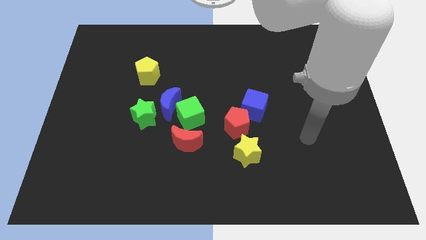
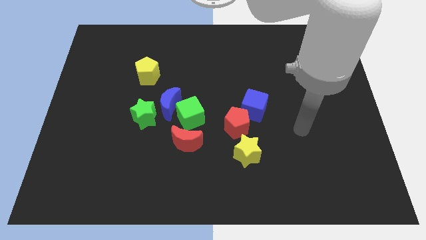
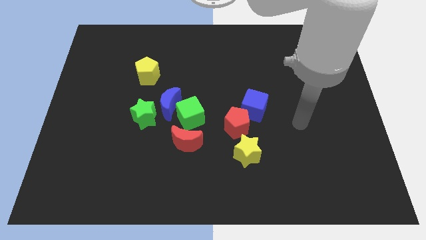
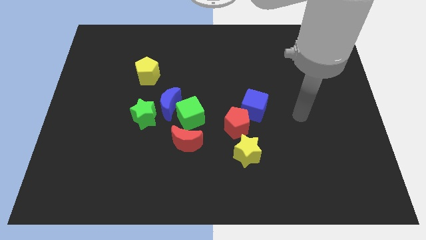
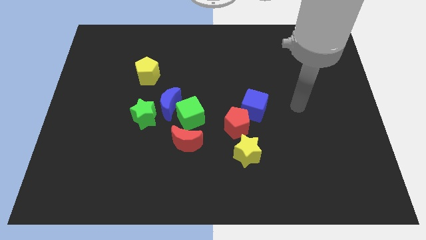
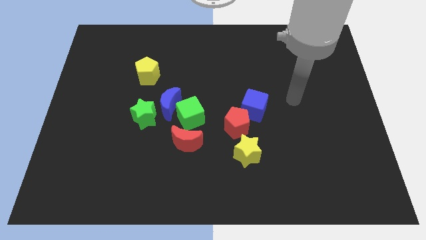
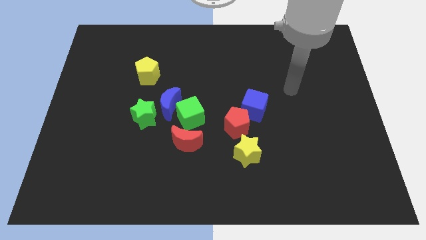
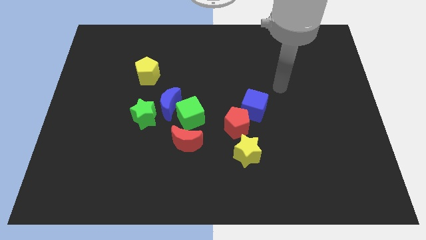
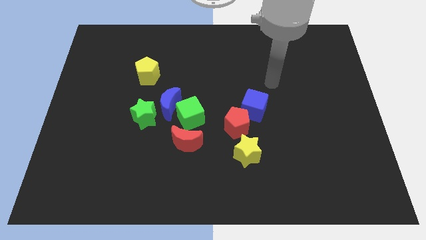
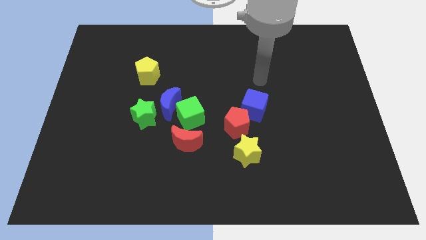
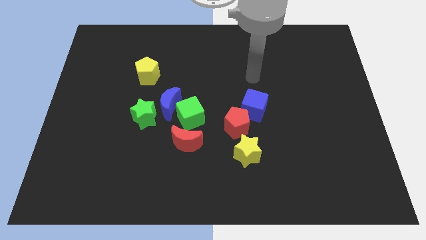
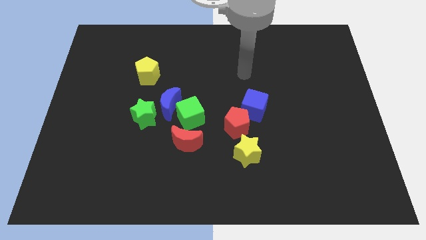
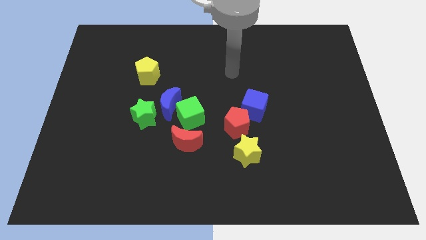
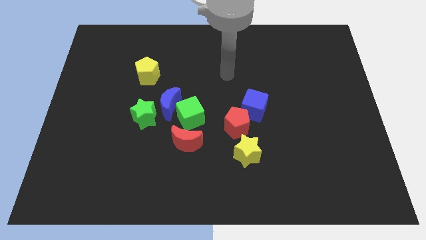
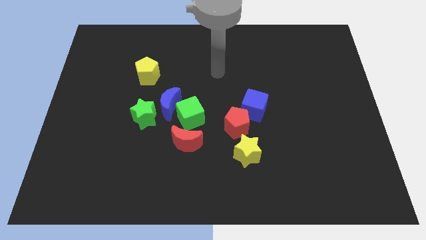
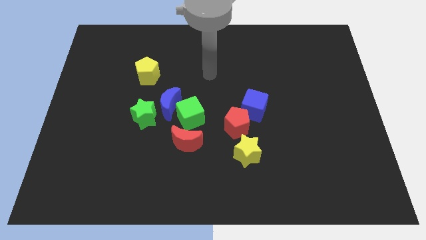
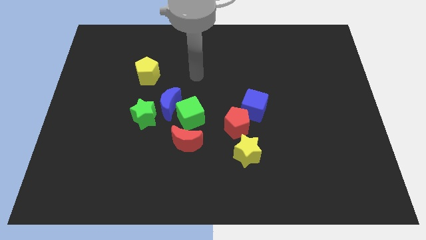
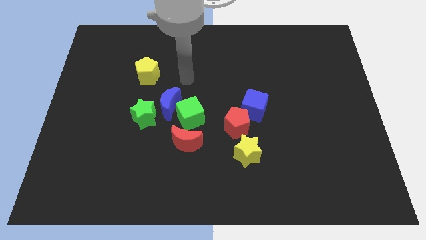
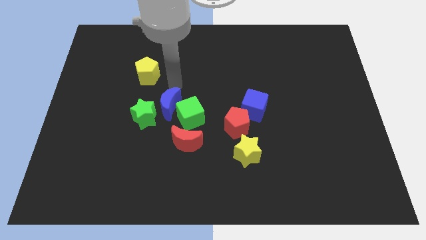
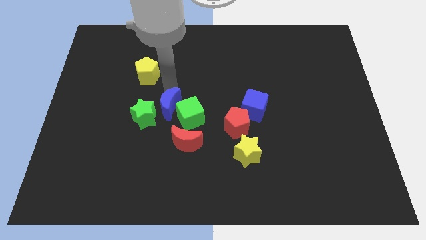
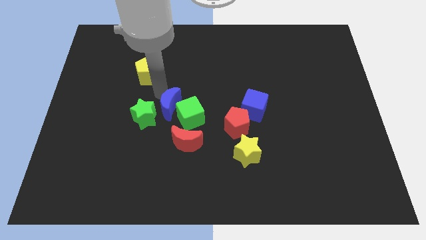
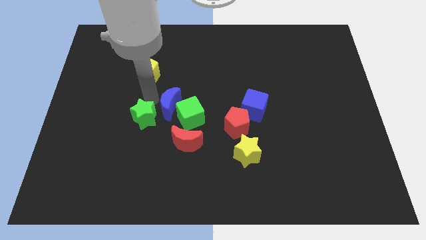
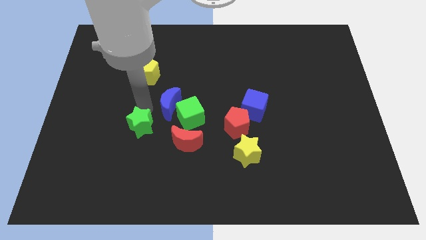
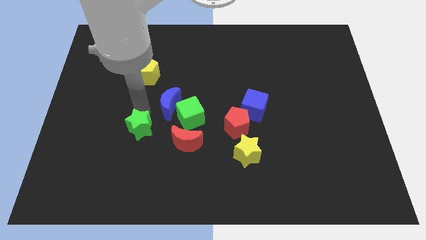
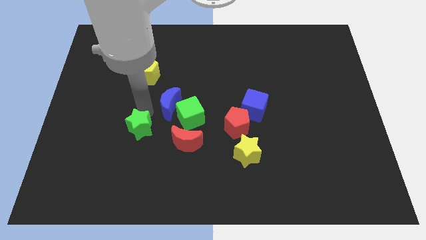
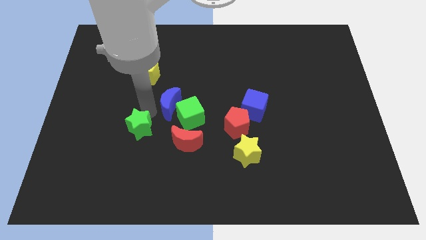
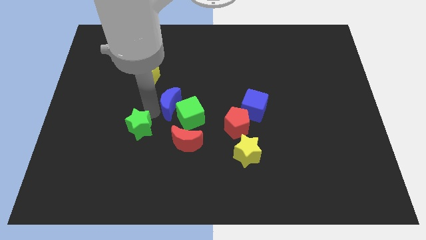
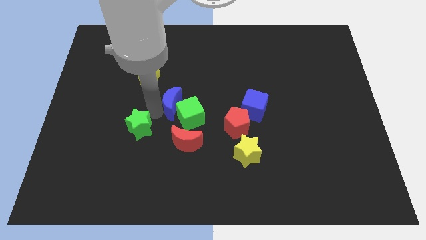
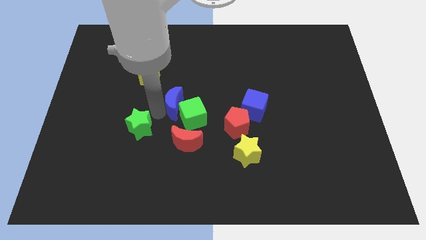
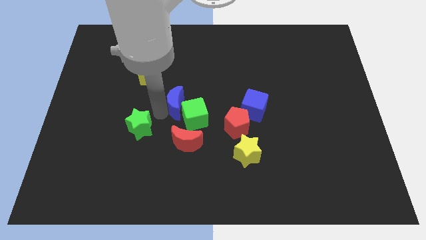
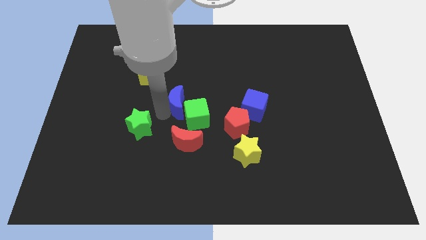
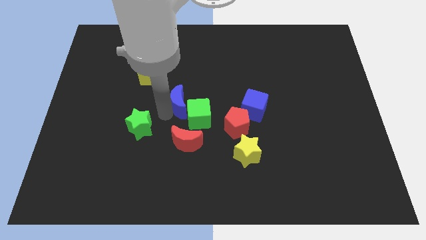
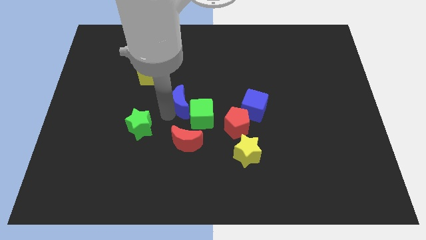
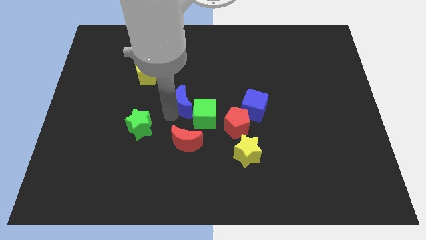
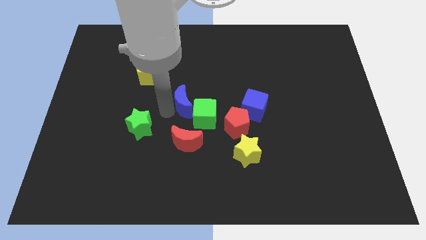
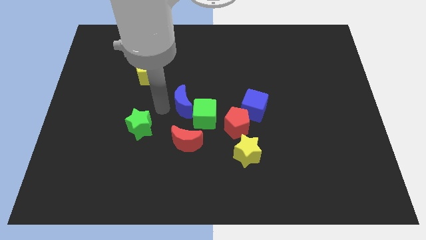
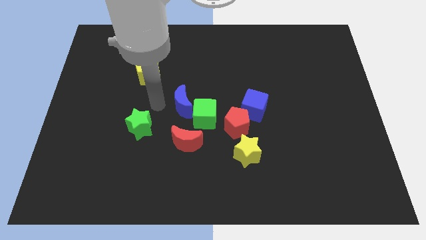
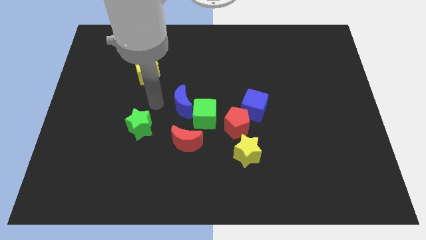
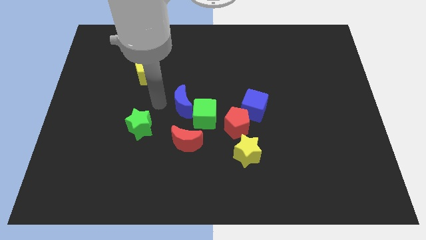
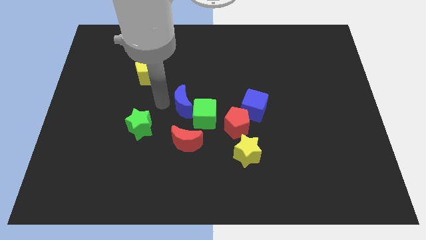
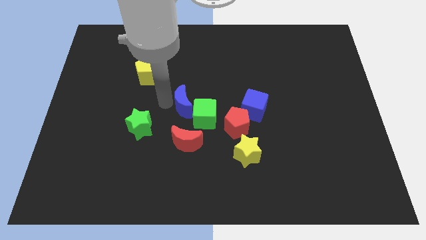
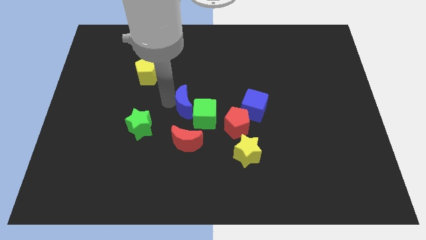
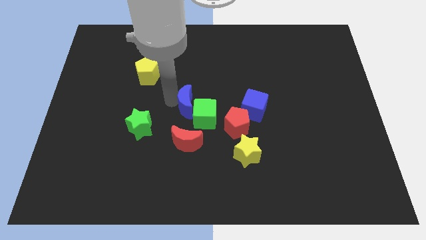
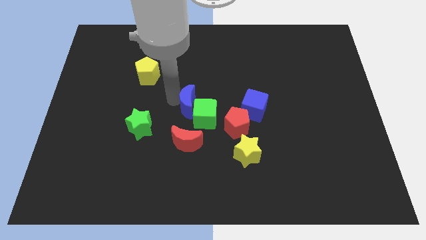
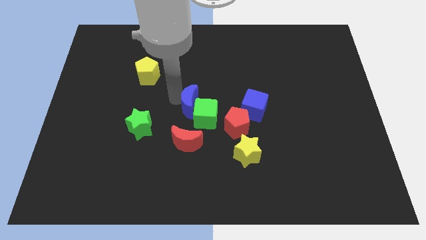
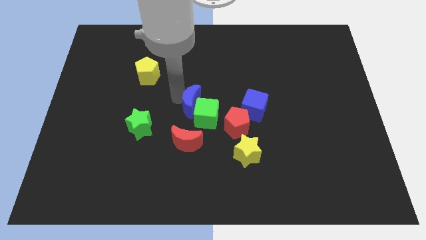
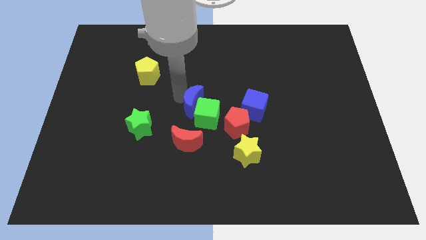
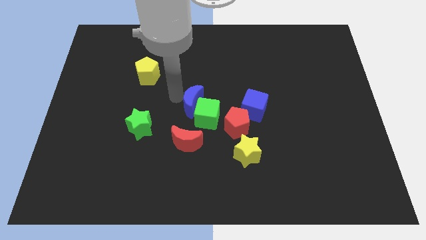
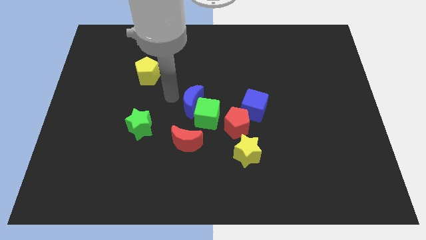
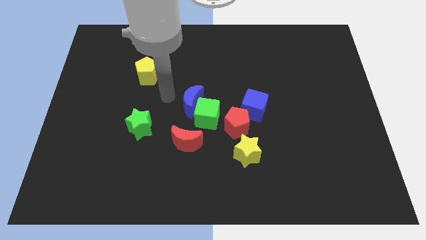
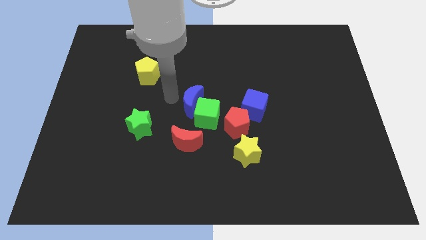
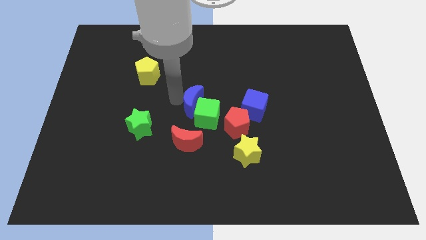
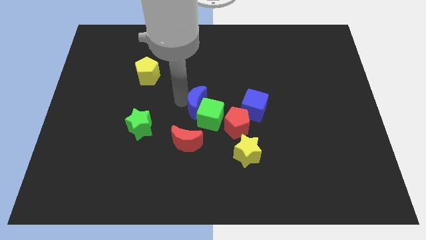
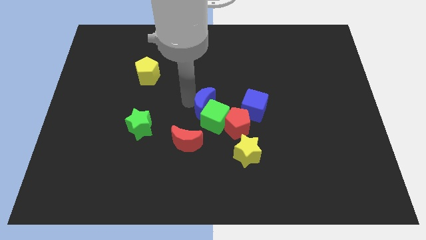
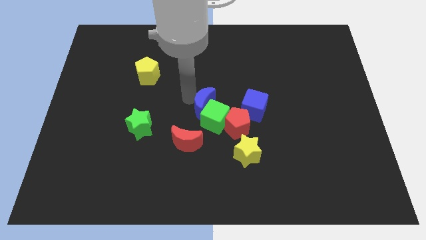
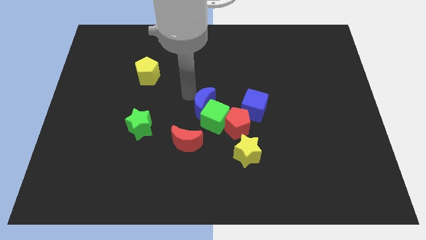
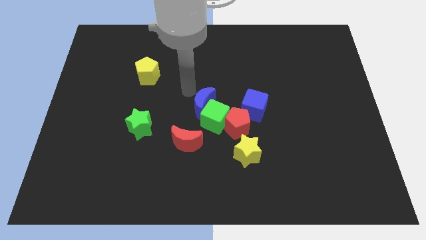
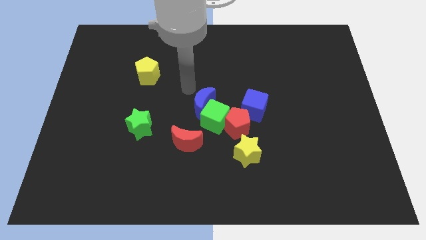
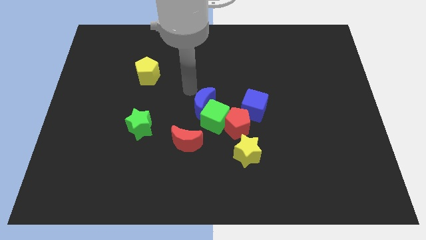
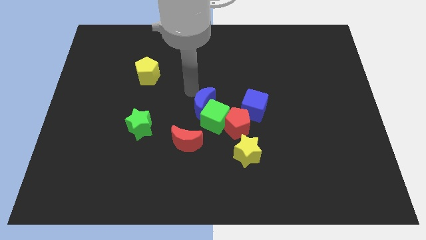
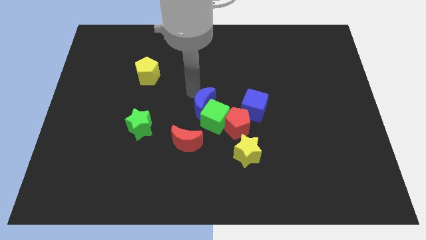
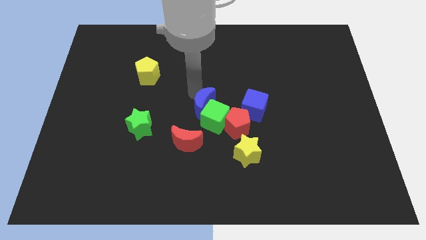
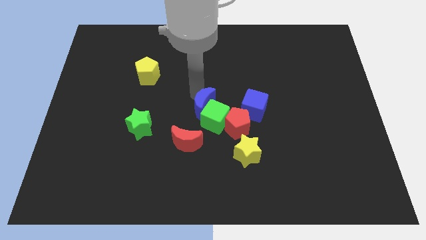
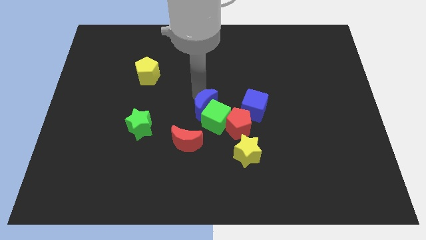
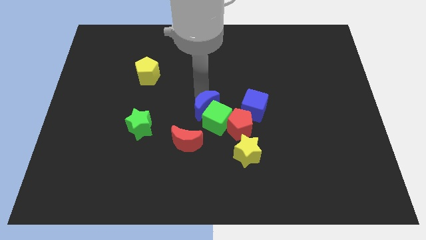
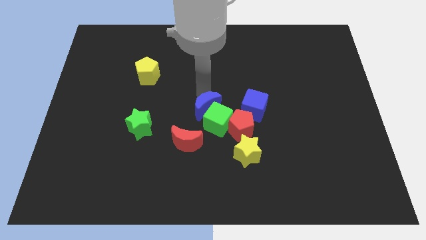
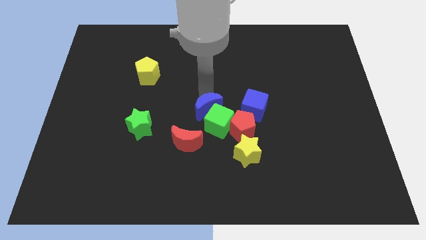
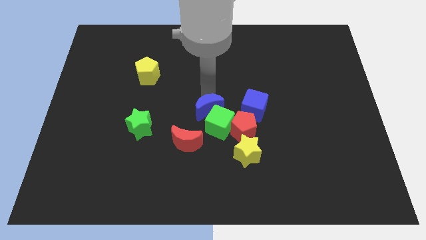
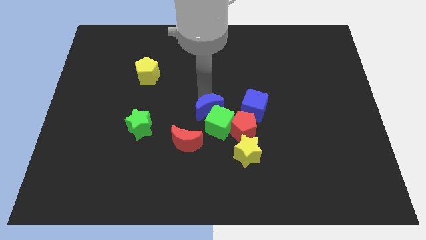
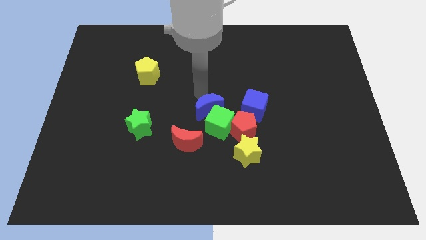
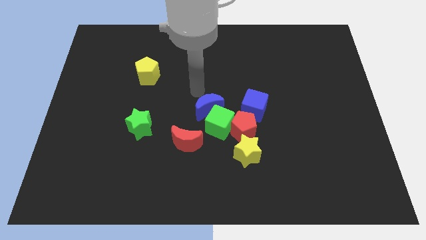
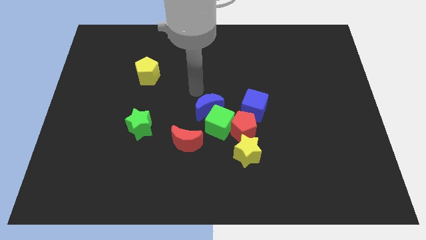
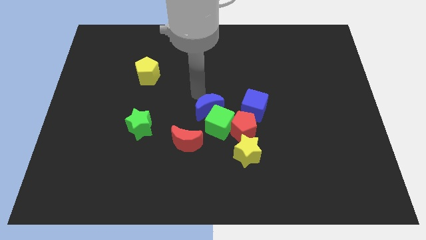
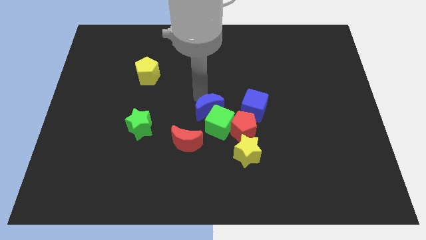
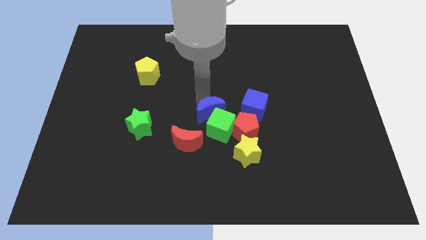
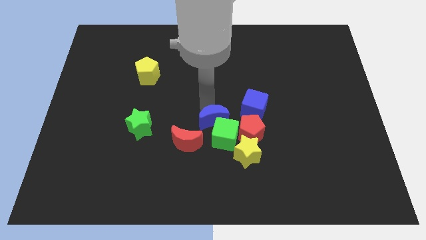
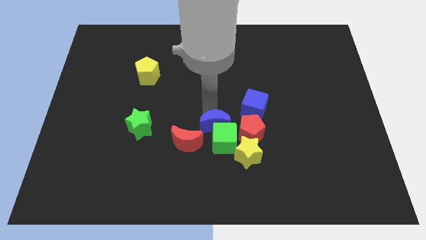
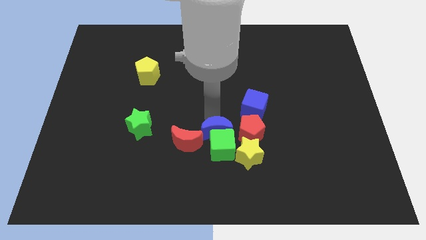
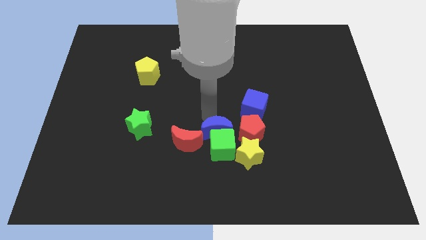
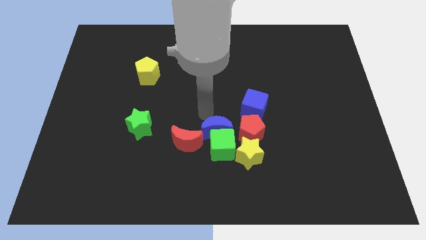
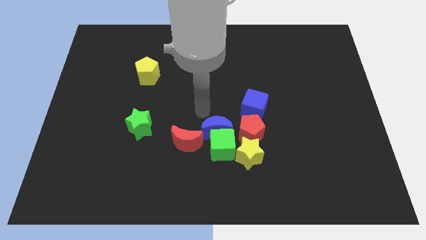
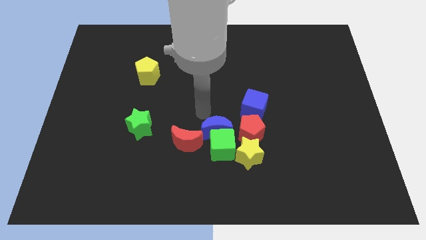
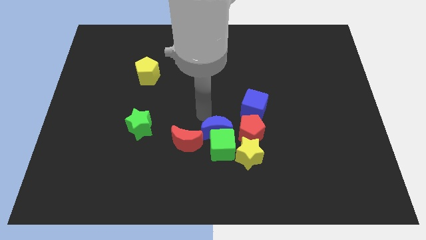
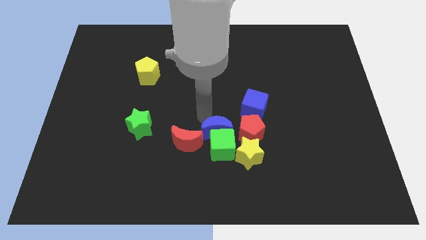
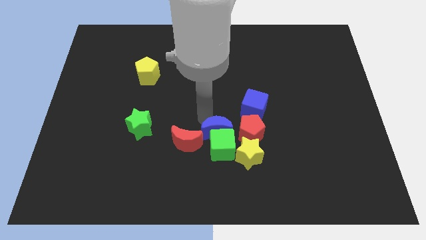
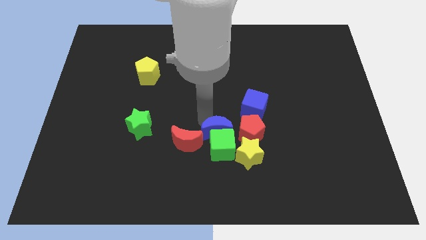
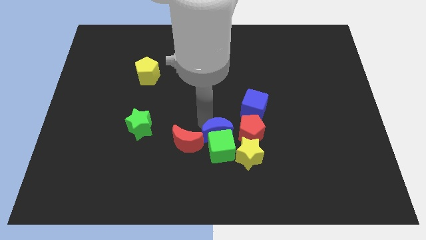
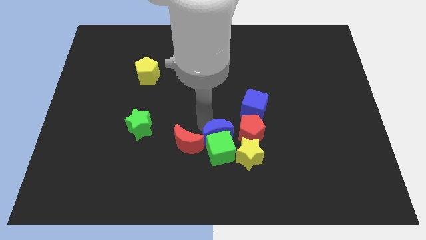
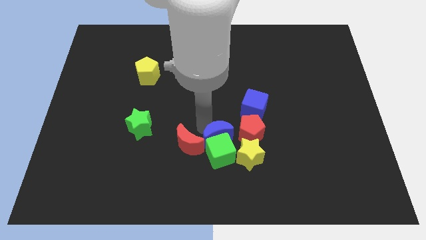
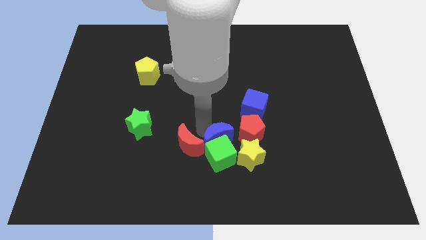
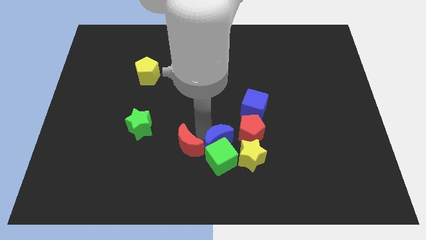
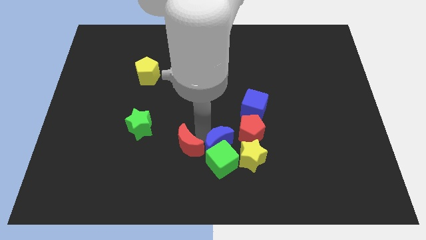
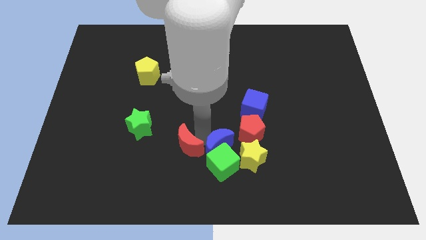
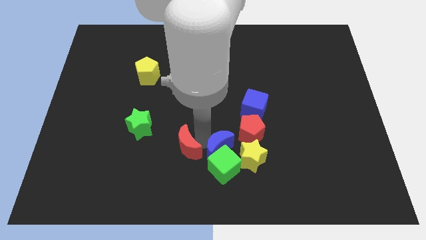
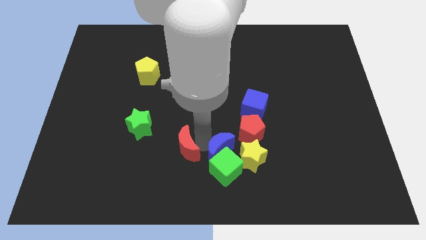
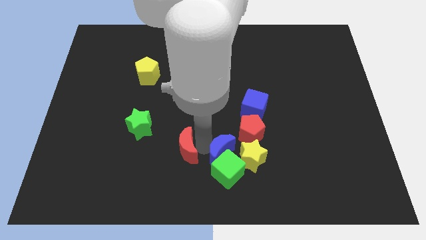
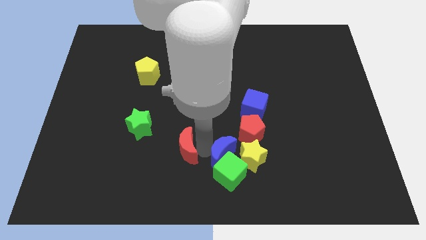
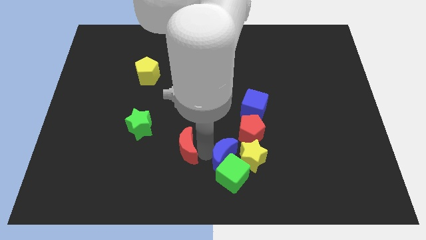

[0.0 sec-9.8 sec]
slide the blue moon towards the yellow star
